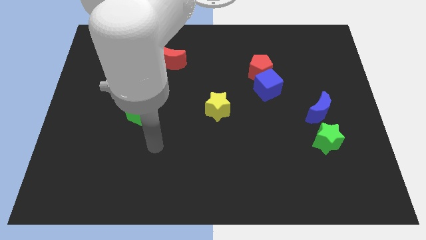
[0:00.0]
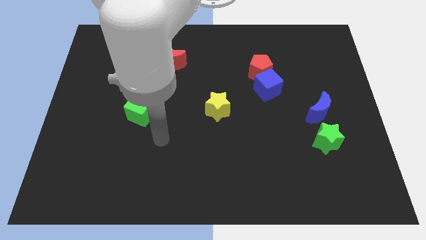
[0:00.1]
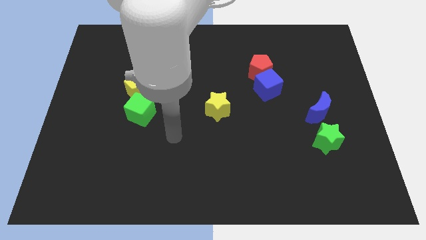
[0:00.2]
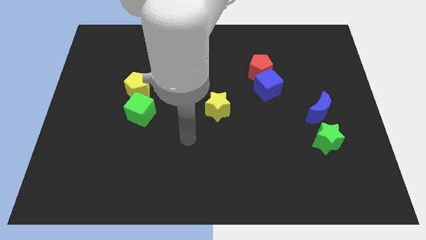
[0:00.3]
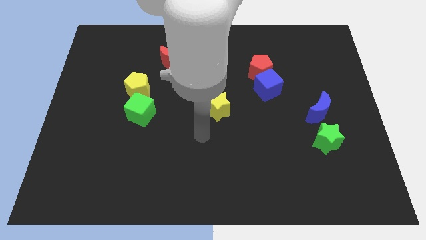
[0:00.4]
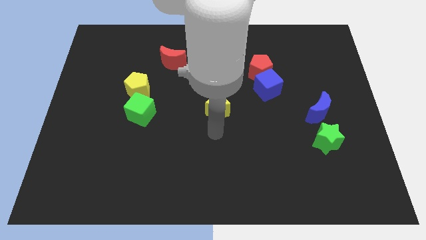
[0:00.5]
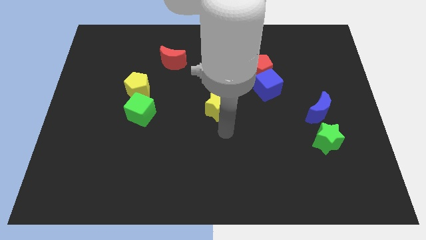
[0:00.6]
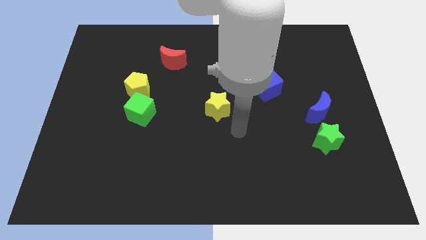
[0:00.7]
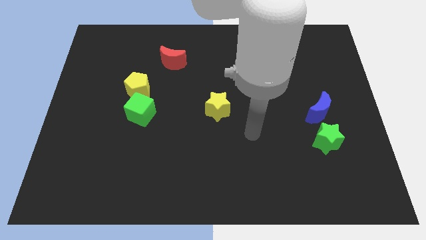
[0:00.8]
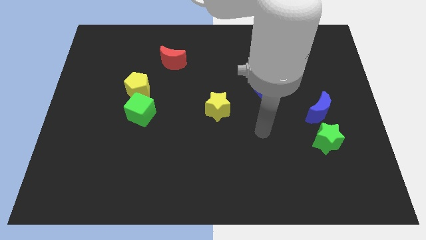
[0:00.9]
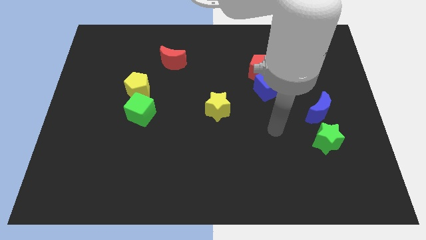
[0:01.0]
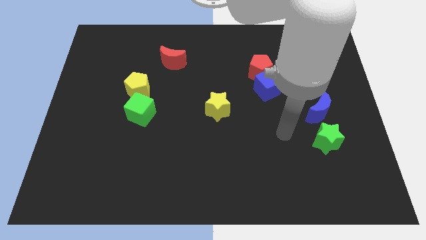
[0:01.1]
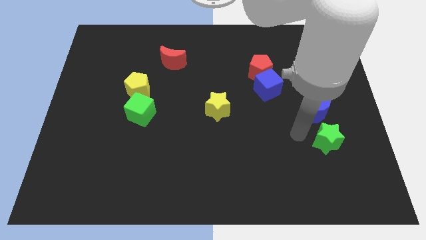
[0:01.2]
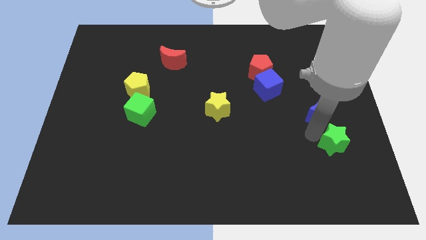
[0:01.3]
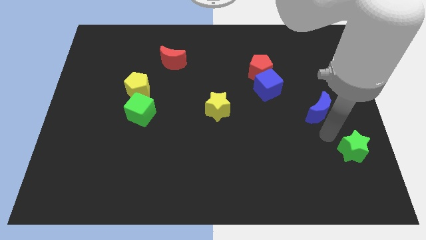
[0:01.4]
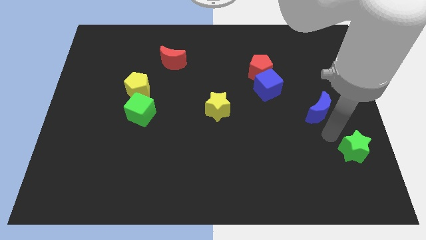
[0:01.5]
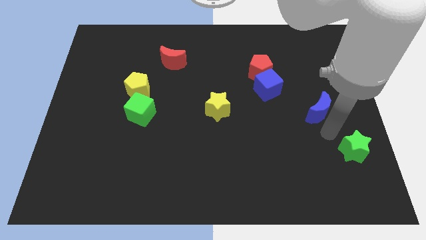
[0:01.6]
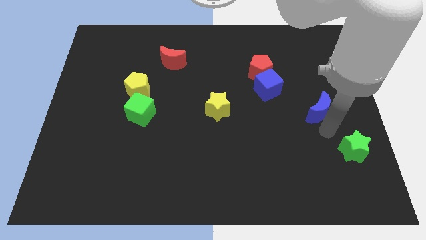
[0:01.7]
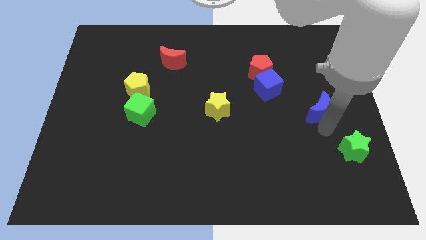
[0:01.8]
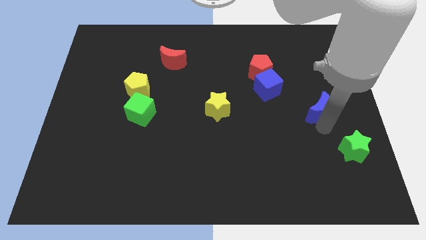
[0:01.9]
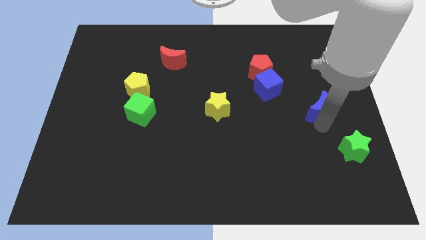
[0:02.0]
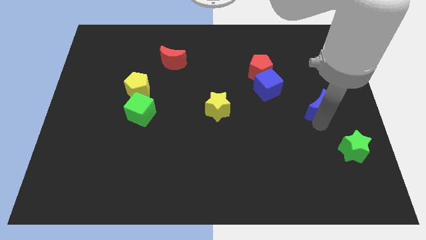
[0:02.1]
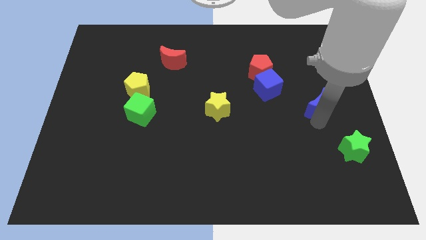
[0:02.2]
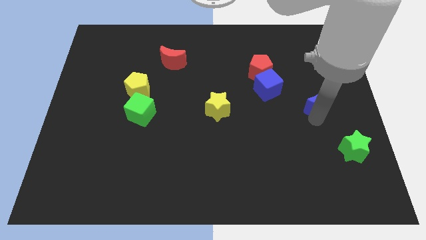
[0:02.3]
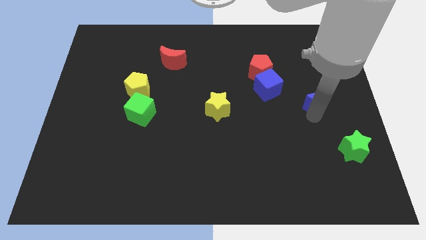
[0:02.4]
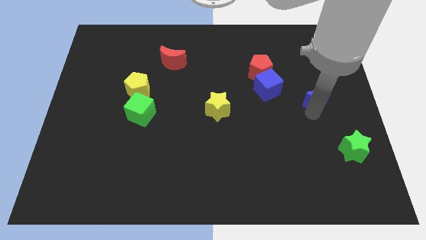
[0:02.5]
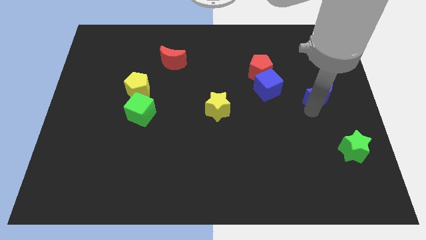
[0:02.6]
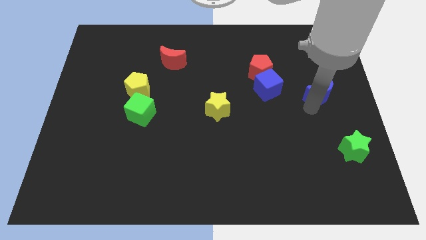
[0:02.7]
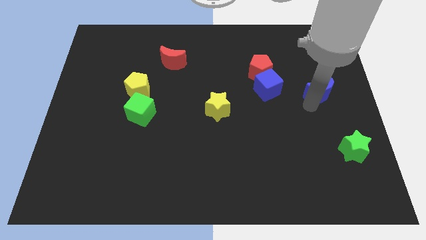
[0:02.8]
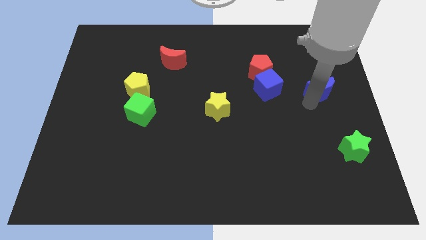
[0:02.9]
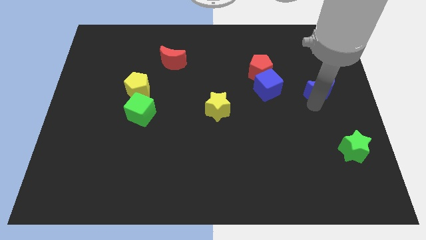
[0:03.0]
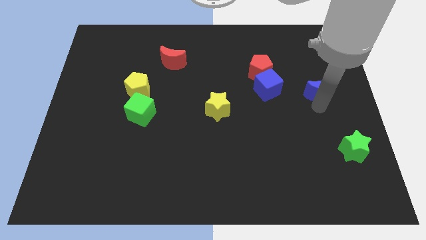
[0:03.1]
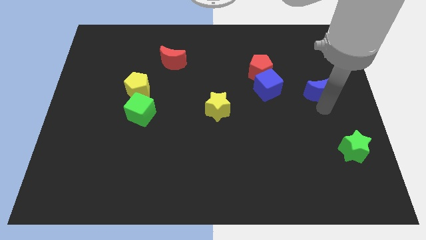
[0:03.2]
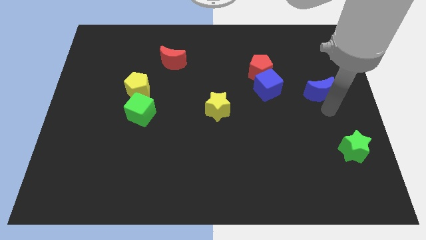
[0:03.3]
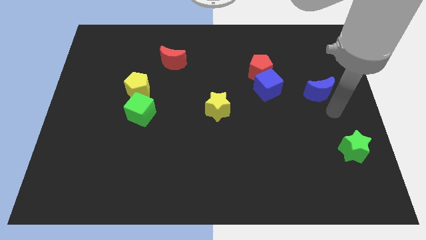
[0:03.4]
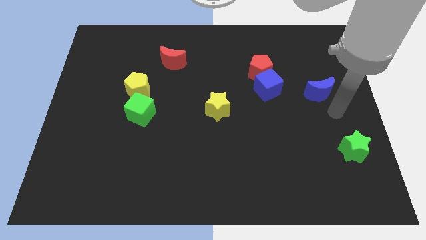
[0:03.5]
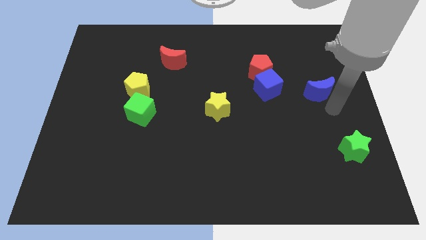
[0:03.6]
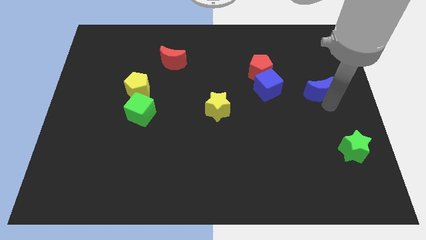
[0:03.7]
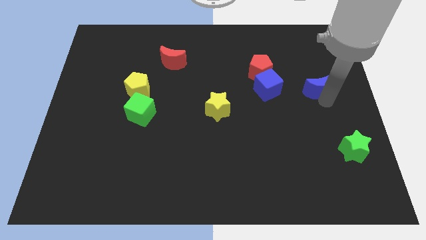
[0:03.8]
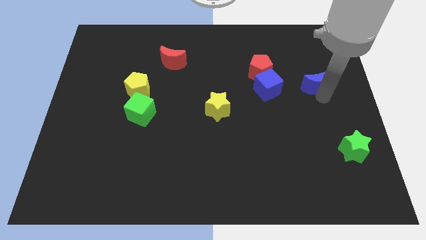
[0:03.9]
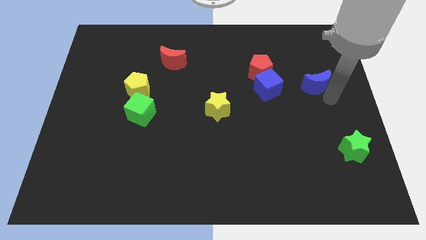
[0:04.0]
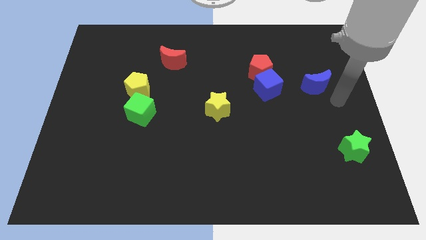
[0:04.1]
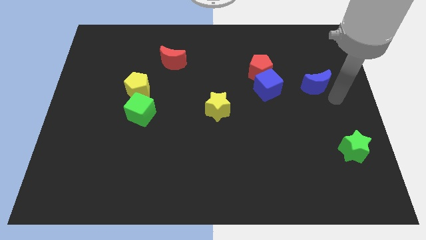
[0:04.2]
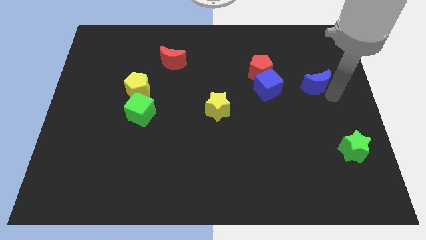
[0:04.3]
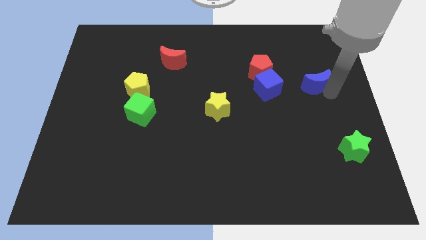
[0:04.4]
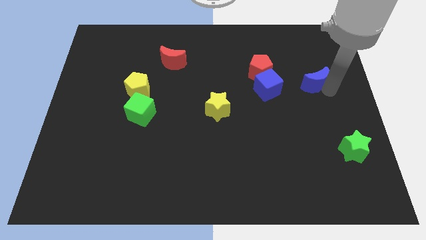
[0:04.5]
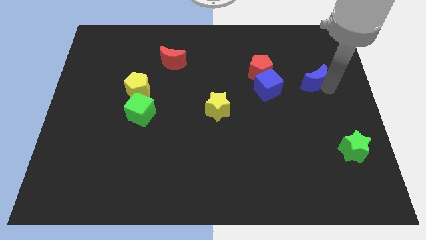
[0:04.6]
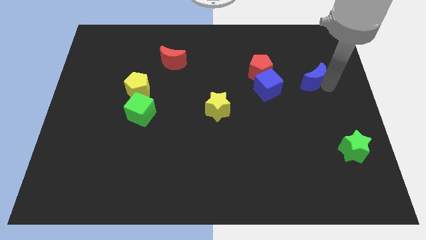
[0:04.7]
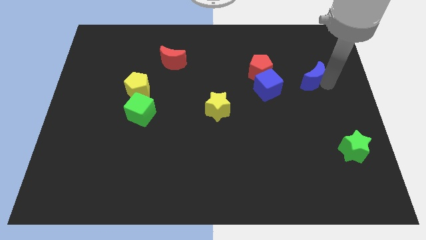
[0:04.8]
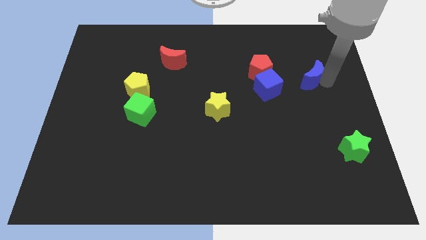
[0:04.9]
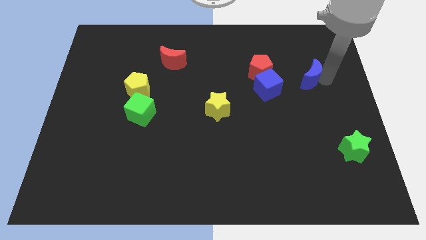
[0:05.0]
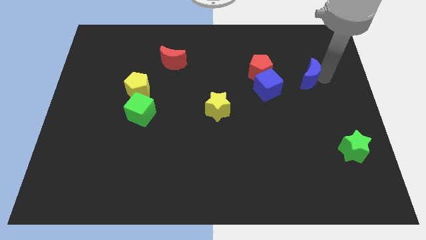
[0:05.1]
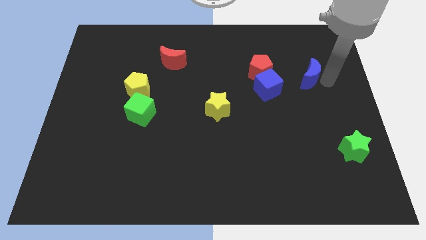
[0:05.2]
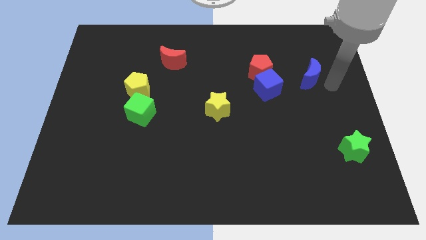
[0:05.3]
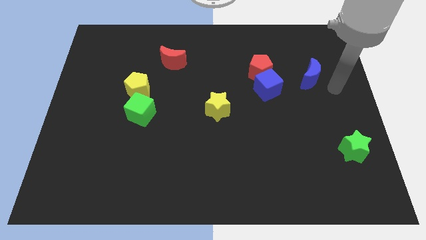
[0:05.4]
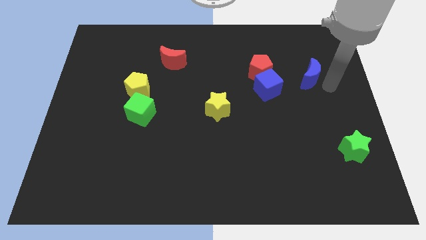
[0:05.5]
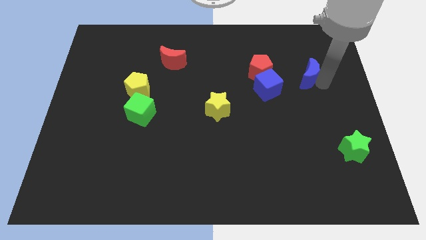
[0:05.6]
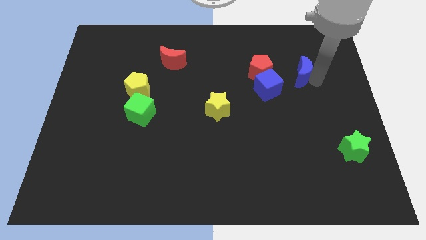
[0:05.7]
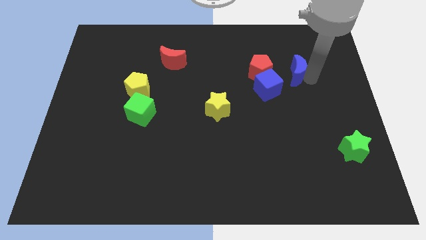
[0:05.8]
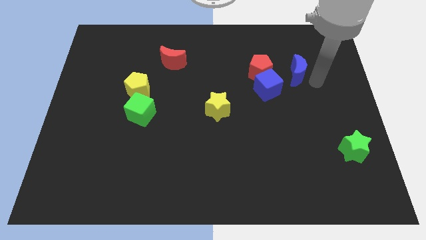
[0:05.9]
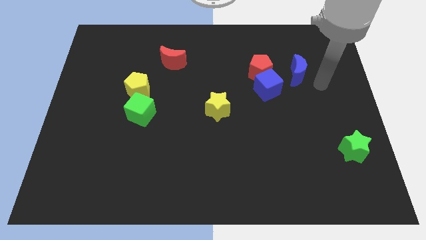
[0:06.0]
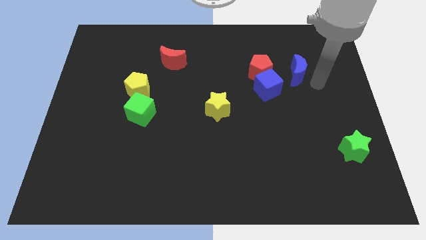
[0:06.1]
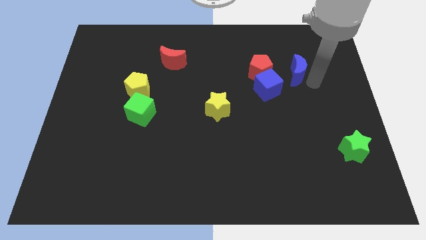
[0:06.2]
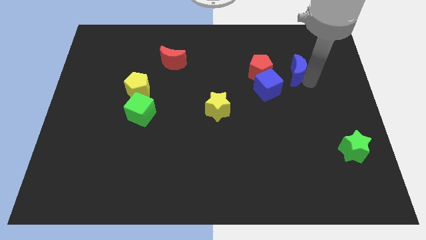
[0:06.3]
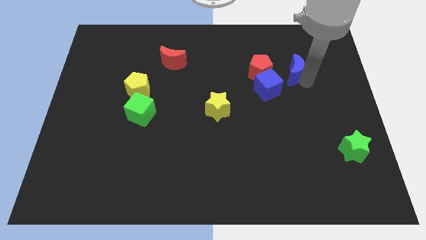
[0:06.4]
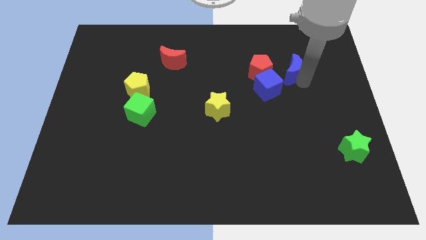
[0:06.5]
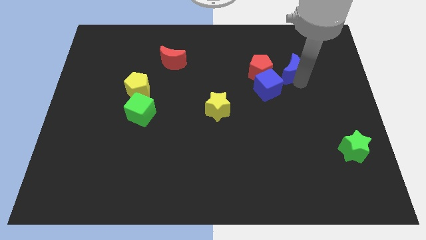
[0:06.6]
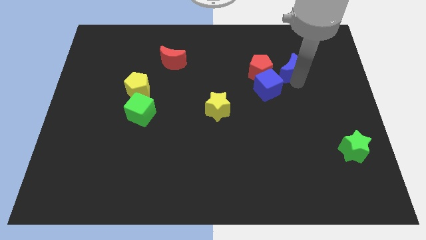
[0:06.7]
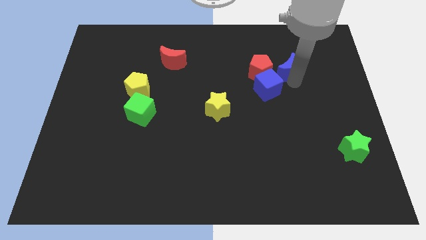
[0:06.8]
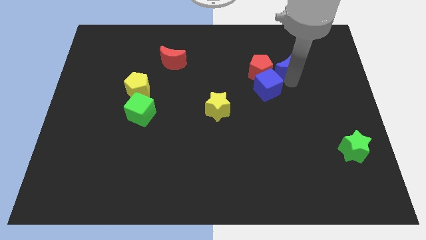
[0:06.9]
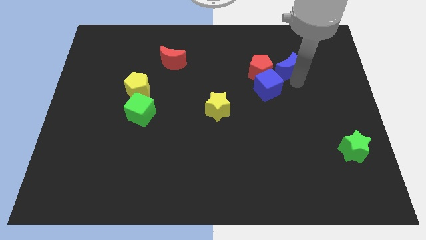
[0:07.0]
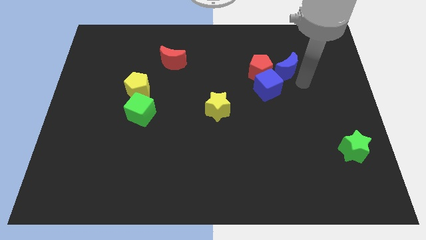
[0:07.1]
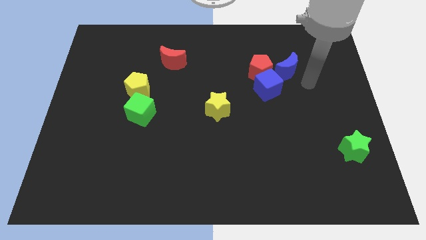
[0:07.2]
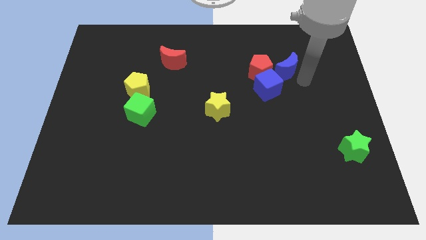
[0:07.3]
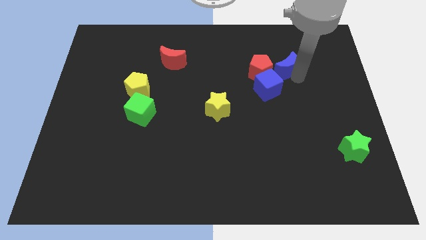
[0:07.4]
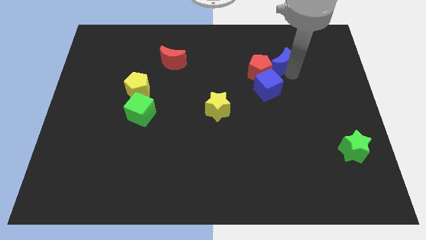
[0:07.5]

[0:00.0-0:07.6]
move the blue moon above the blue cube

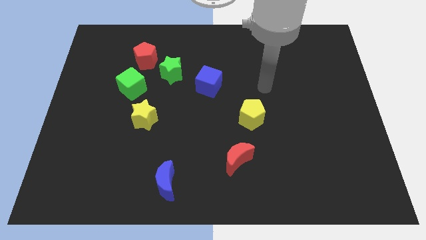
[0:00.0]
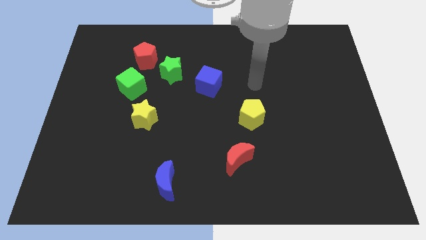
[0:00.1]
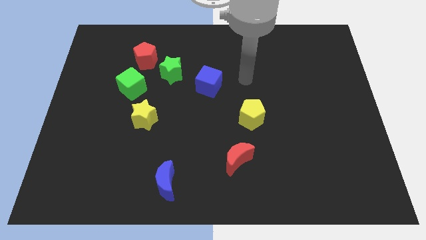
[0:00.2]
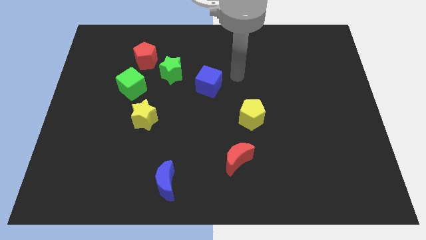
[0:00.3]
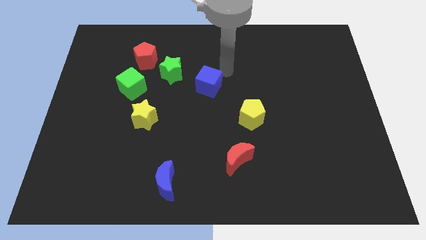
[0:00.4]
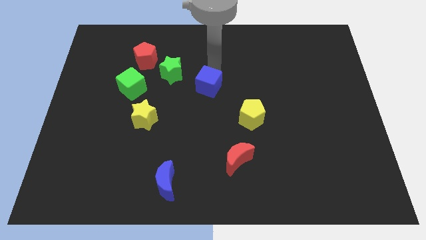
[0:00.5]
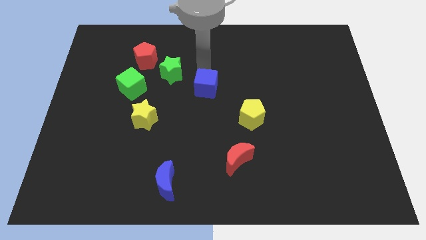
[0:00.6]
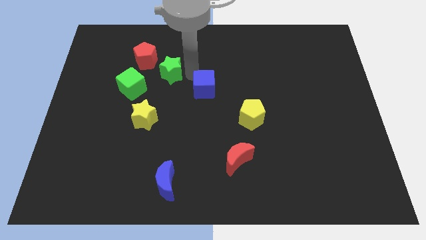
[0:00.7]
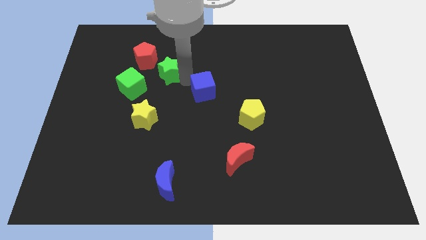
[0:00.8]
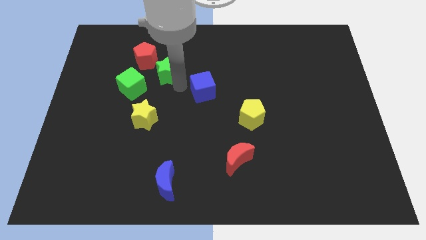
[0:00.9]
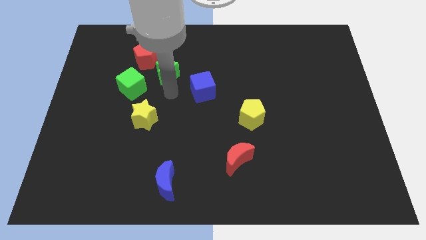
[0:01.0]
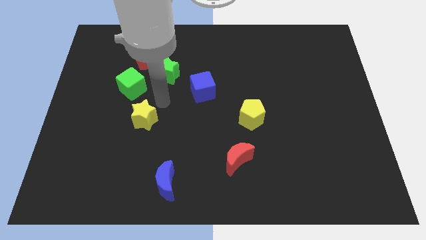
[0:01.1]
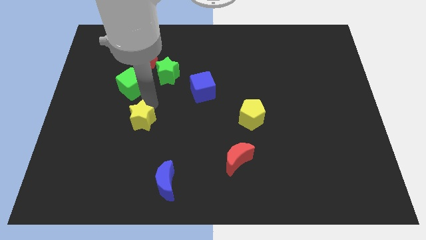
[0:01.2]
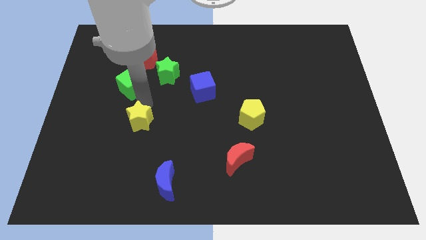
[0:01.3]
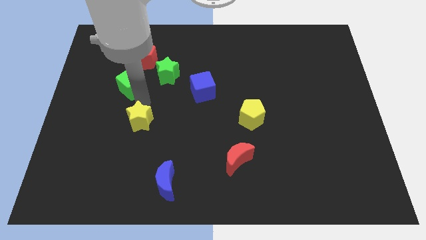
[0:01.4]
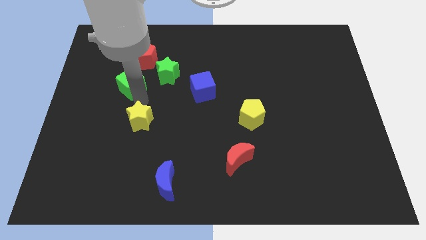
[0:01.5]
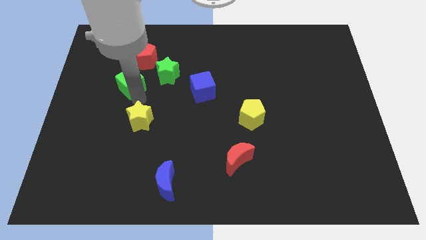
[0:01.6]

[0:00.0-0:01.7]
put the green cube diagonally down and to the left of the red pentagon
